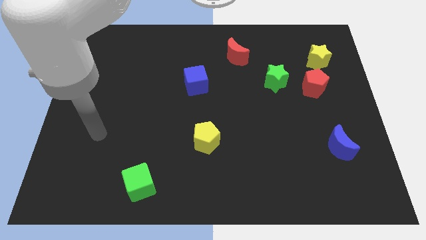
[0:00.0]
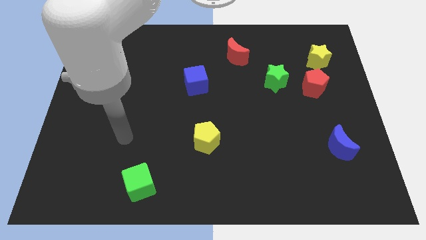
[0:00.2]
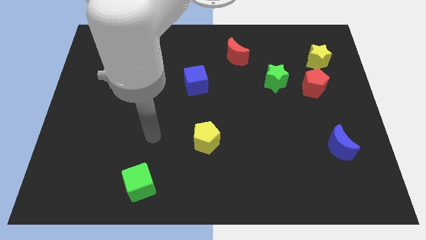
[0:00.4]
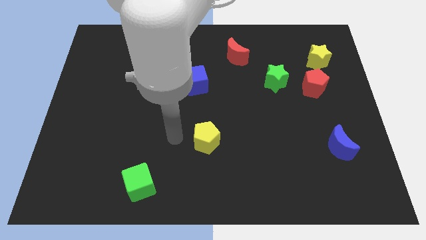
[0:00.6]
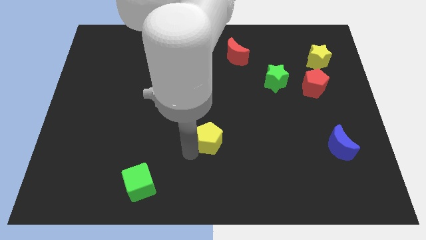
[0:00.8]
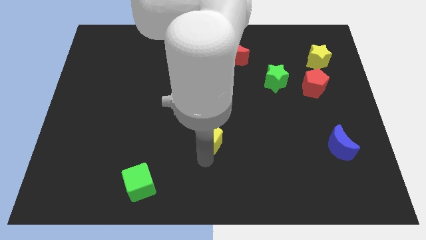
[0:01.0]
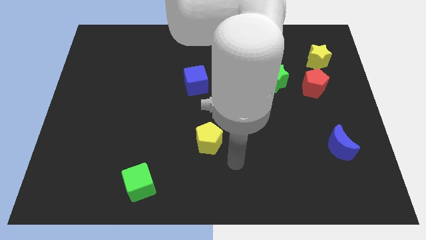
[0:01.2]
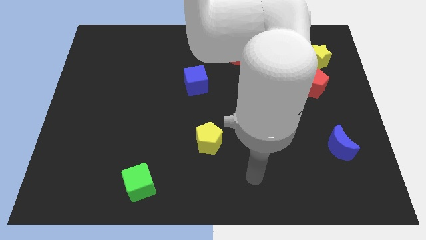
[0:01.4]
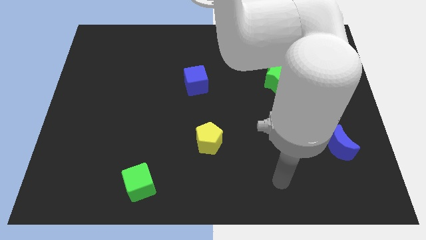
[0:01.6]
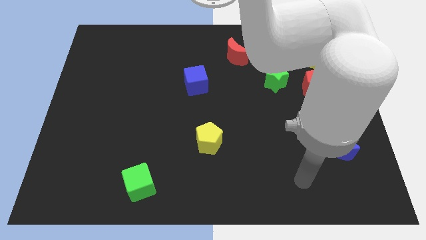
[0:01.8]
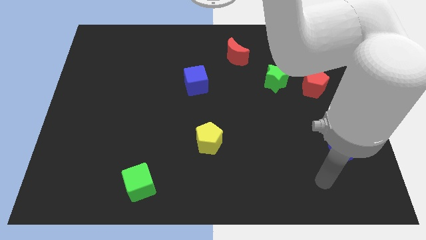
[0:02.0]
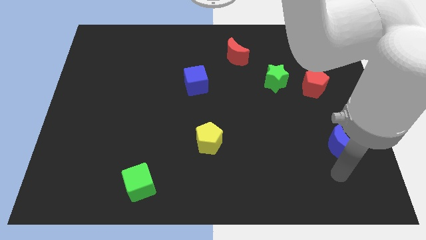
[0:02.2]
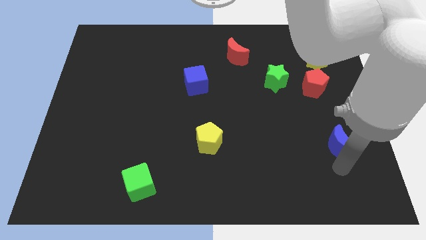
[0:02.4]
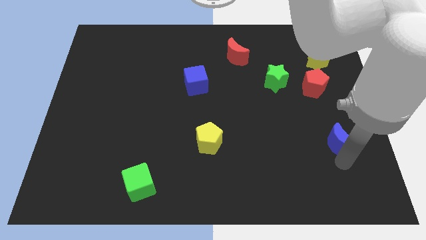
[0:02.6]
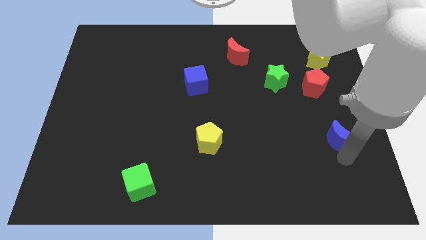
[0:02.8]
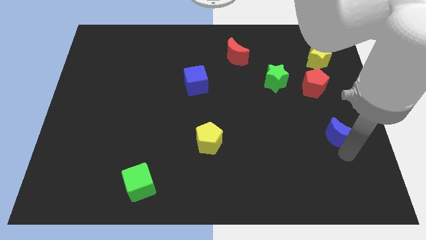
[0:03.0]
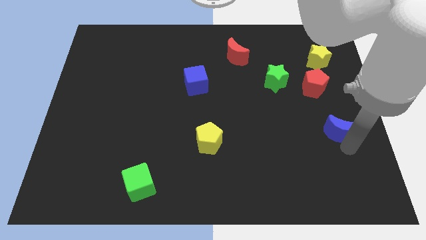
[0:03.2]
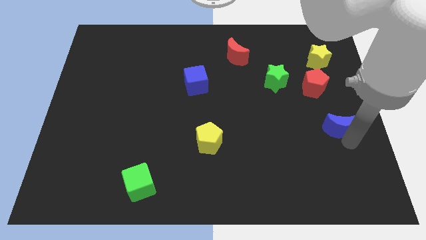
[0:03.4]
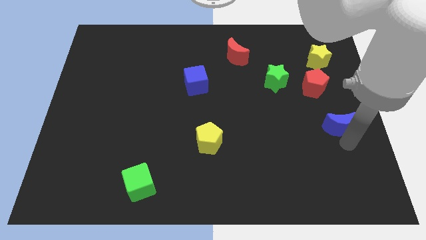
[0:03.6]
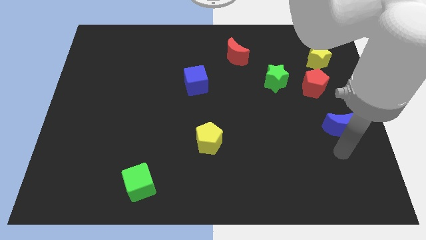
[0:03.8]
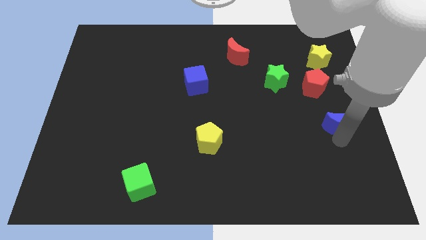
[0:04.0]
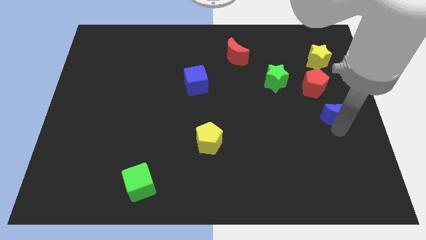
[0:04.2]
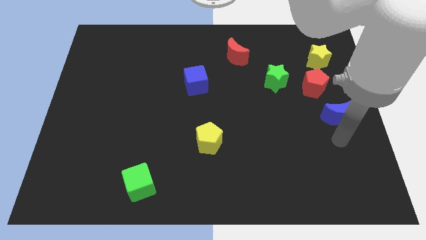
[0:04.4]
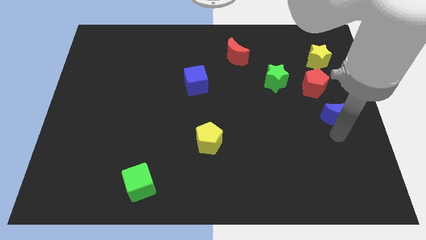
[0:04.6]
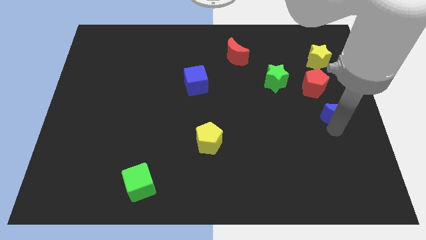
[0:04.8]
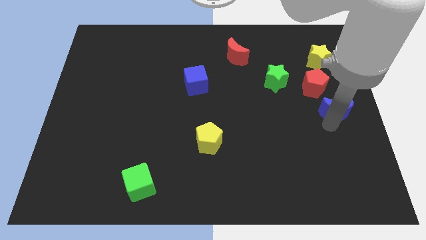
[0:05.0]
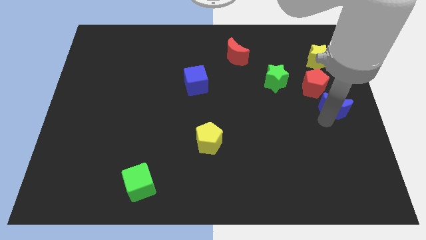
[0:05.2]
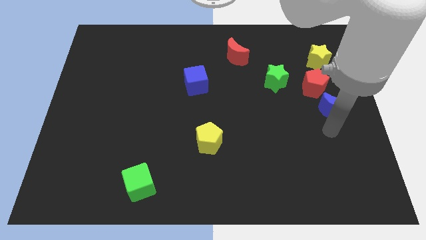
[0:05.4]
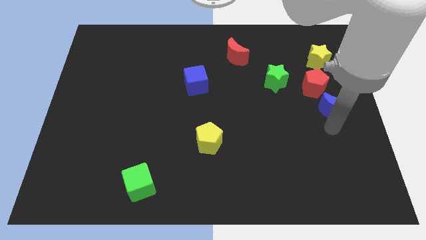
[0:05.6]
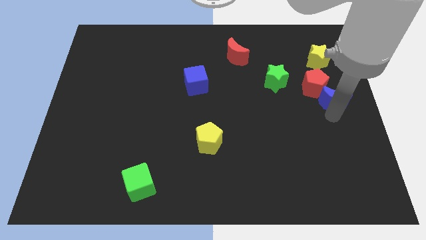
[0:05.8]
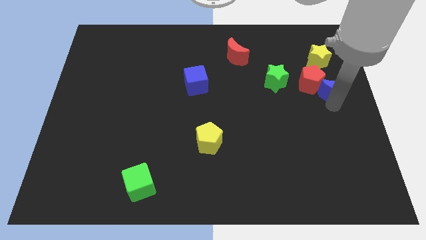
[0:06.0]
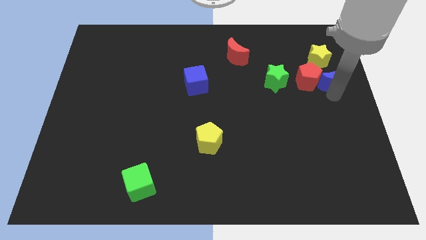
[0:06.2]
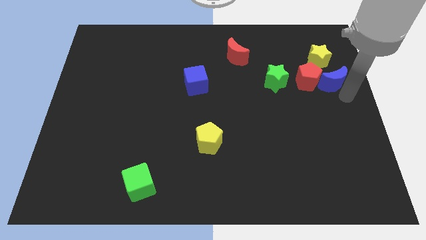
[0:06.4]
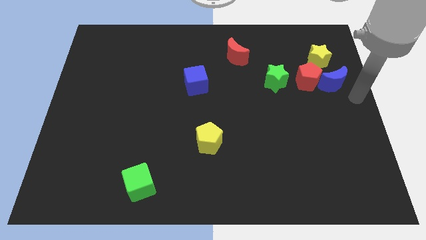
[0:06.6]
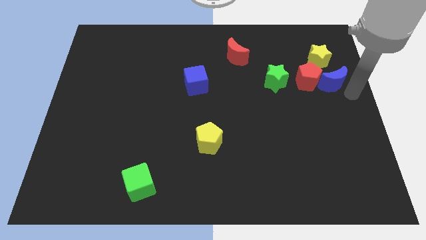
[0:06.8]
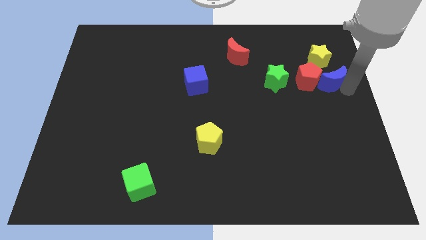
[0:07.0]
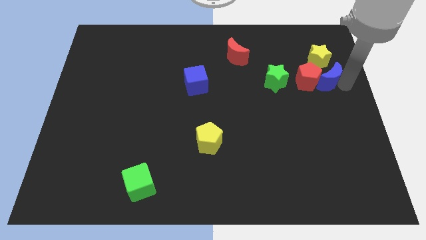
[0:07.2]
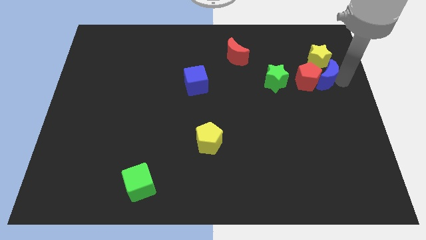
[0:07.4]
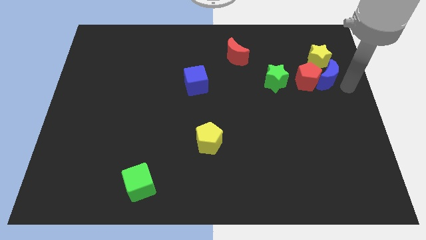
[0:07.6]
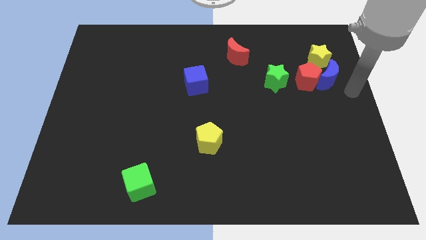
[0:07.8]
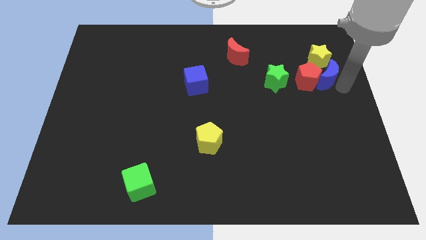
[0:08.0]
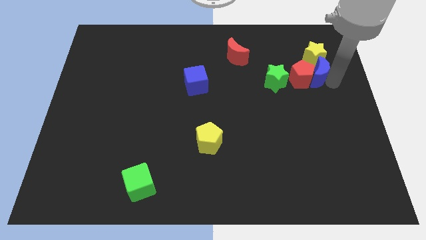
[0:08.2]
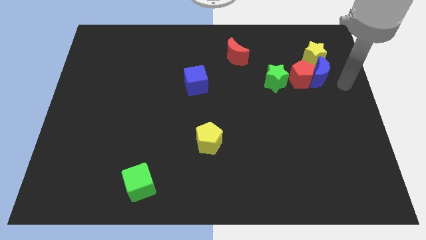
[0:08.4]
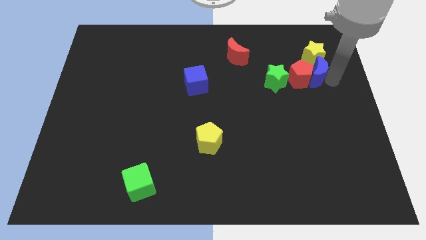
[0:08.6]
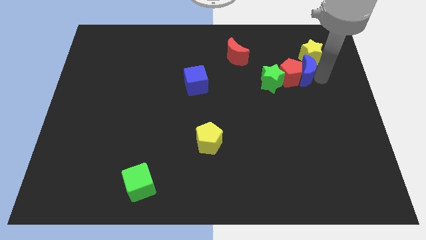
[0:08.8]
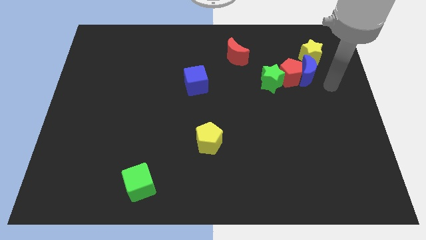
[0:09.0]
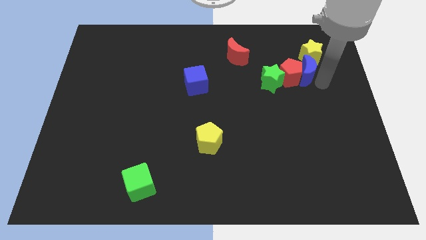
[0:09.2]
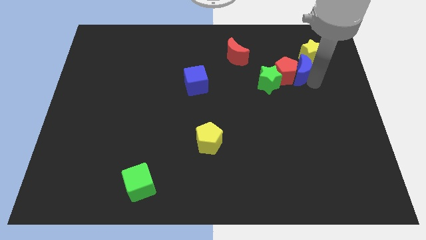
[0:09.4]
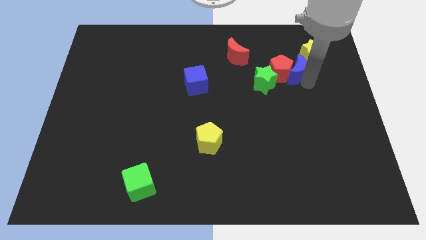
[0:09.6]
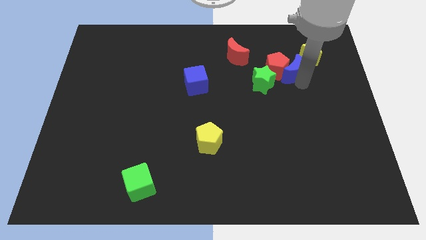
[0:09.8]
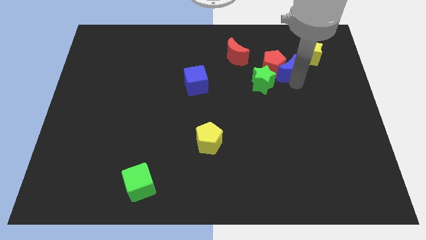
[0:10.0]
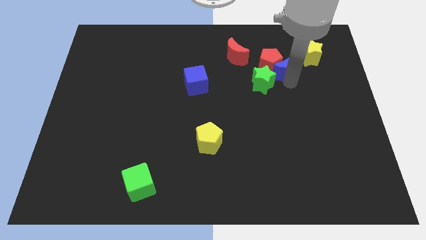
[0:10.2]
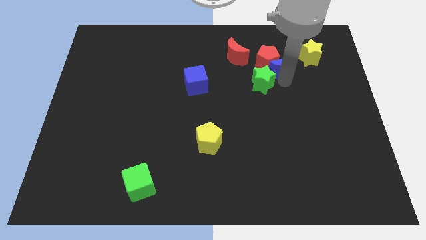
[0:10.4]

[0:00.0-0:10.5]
put the blue moon just left of the yellow star

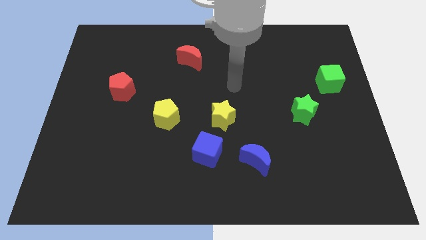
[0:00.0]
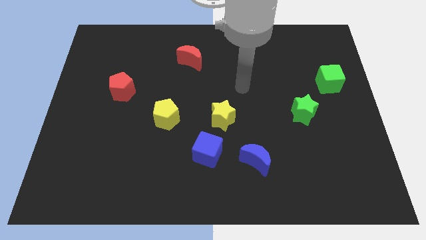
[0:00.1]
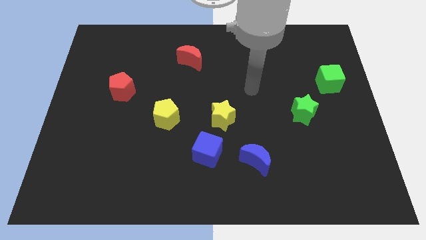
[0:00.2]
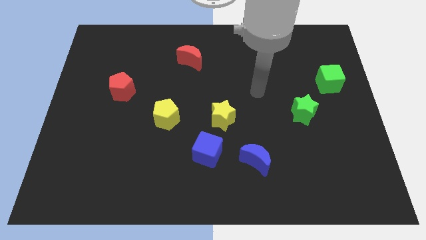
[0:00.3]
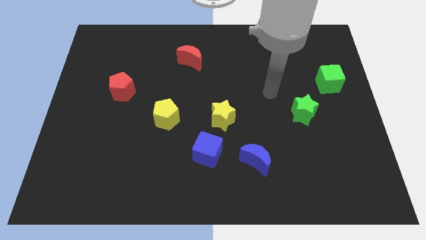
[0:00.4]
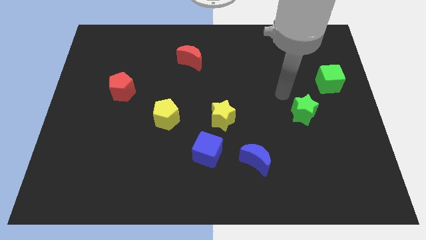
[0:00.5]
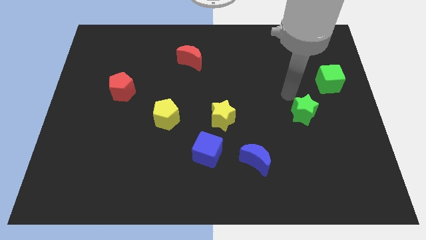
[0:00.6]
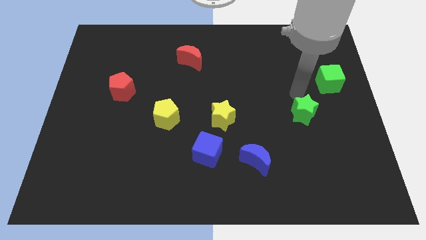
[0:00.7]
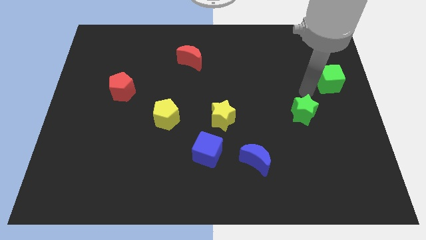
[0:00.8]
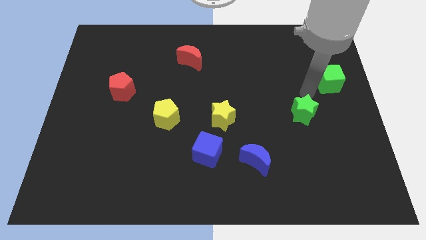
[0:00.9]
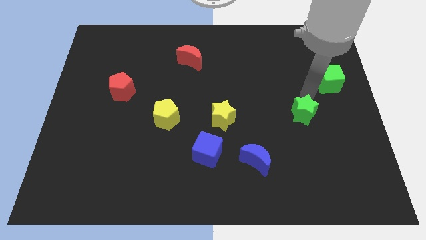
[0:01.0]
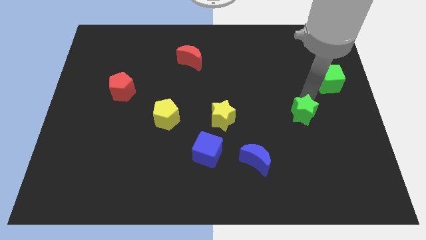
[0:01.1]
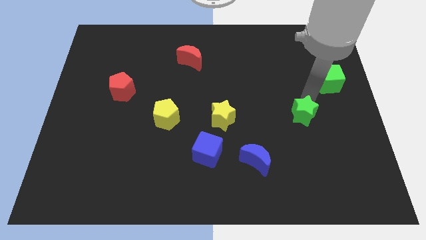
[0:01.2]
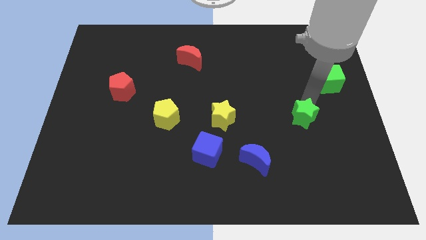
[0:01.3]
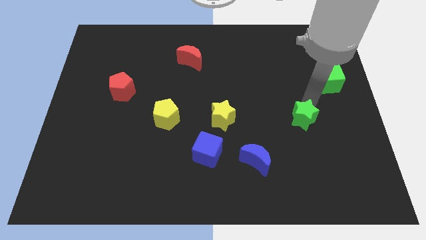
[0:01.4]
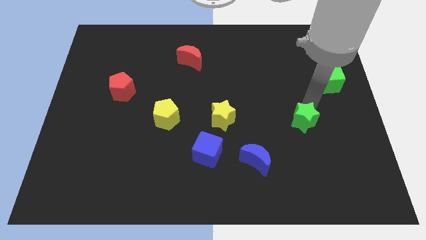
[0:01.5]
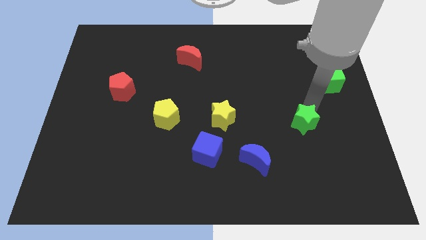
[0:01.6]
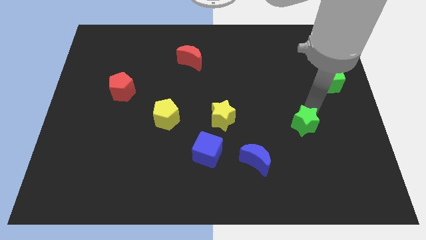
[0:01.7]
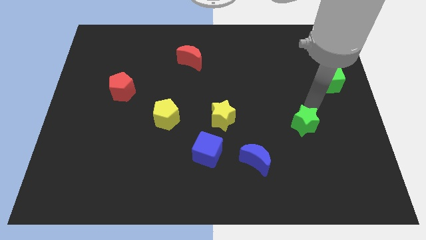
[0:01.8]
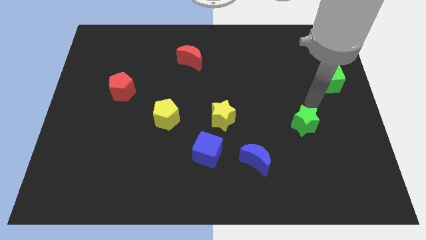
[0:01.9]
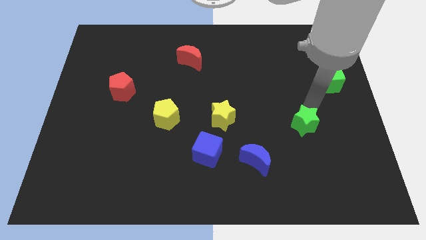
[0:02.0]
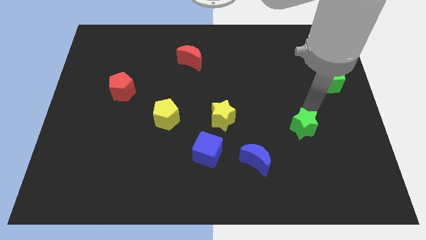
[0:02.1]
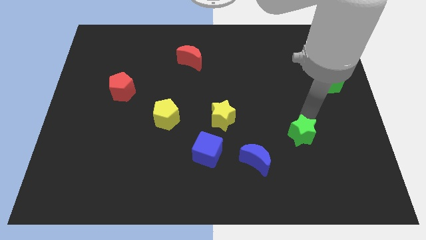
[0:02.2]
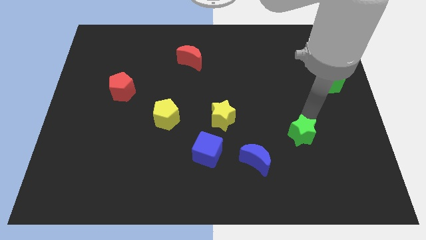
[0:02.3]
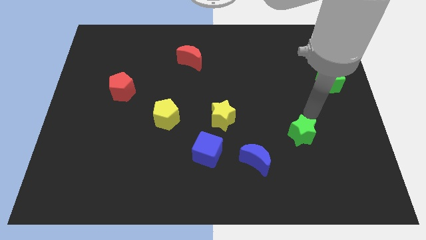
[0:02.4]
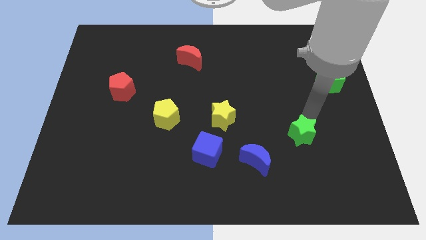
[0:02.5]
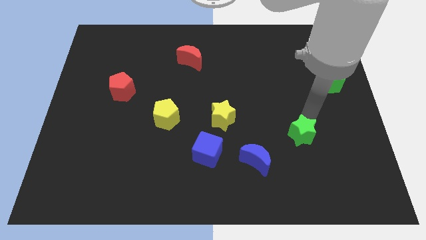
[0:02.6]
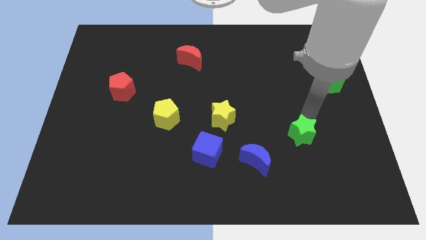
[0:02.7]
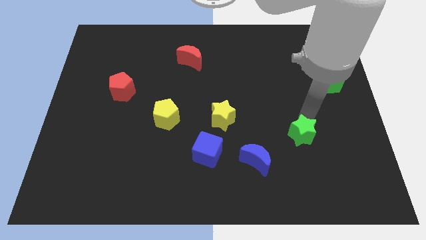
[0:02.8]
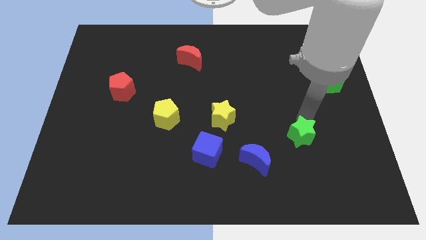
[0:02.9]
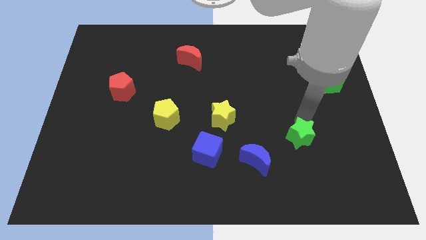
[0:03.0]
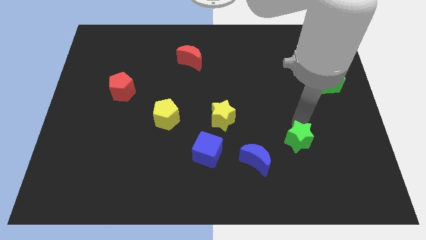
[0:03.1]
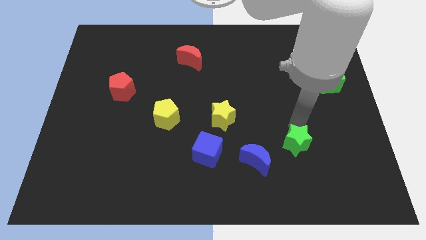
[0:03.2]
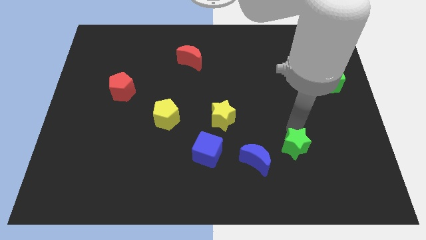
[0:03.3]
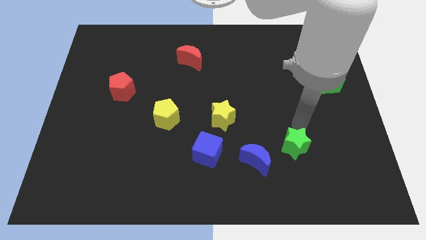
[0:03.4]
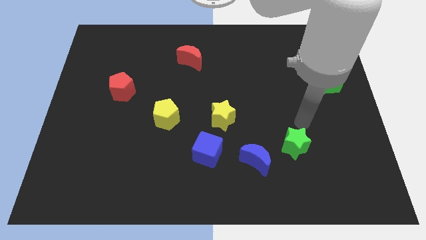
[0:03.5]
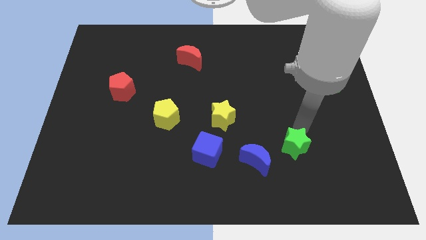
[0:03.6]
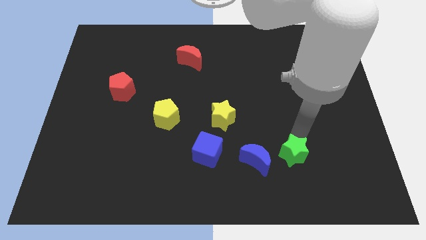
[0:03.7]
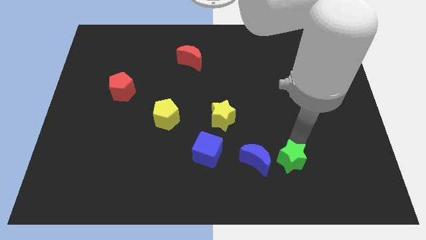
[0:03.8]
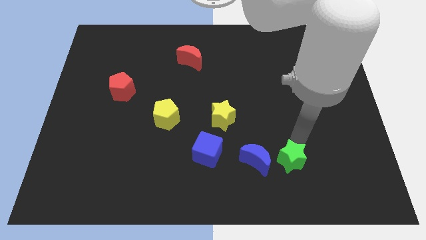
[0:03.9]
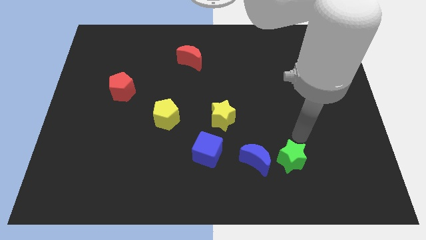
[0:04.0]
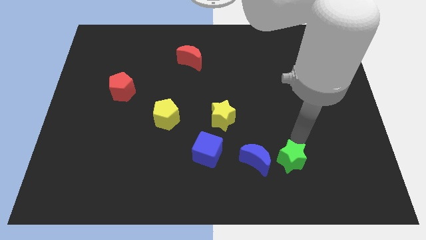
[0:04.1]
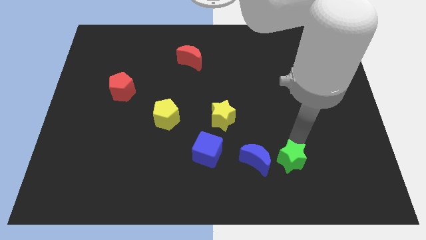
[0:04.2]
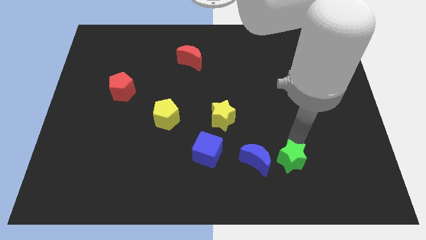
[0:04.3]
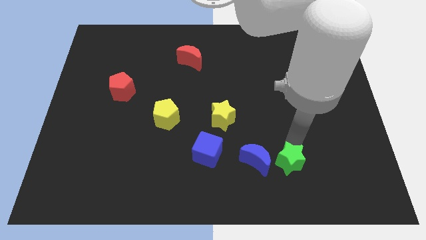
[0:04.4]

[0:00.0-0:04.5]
put the green star to the bottom right of the blue moon
